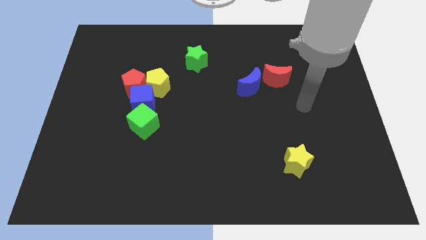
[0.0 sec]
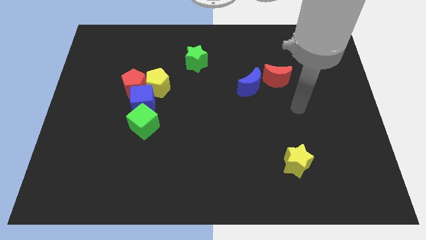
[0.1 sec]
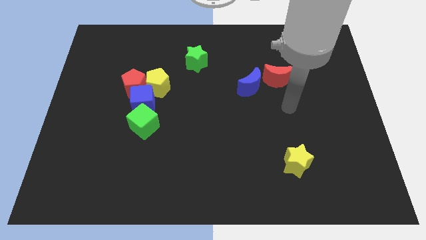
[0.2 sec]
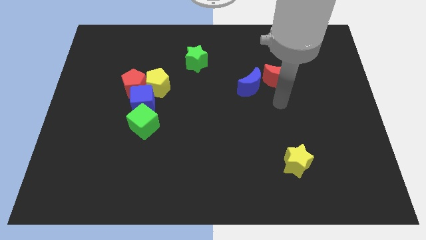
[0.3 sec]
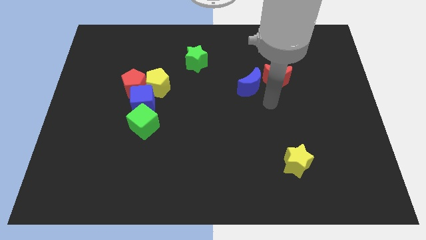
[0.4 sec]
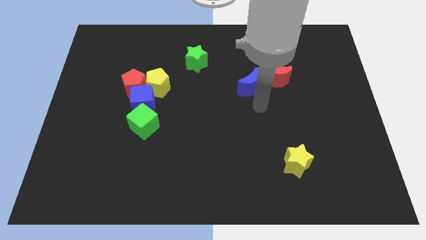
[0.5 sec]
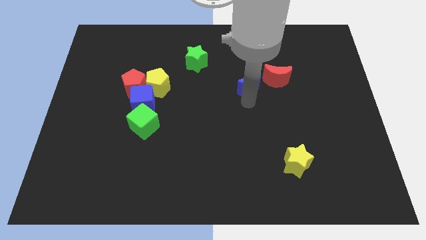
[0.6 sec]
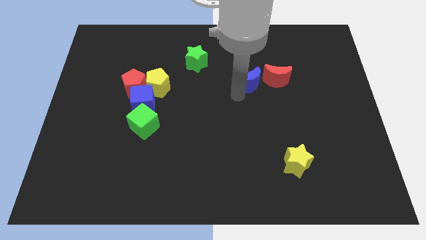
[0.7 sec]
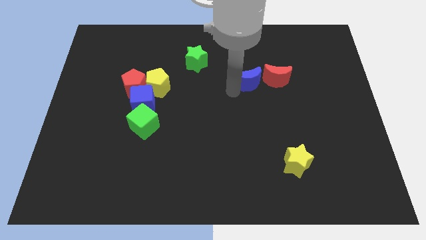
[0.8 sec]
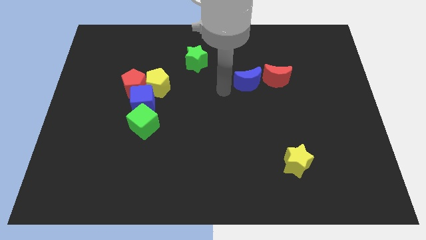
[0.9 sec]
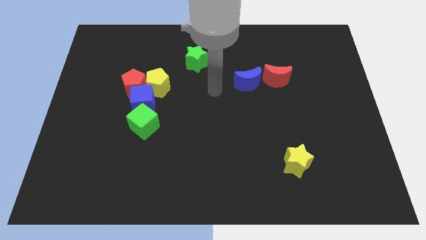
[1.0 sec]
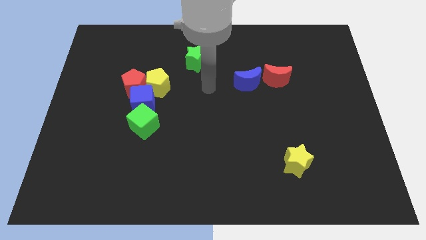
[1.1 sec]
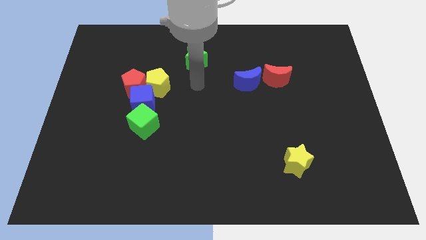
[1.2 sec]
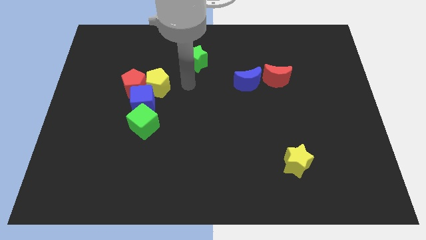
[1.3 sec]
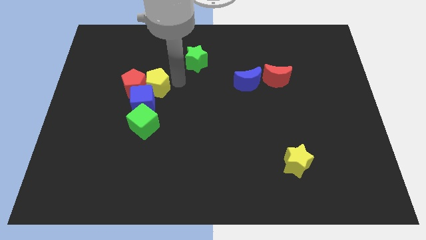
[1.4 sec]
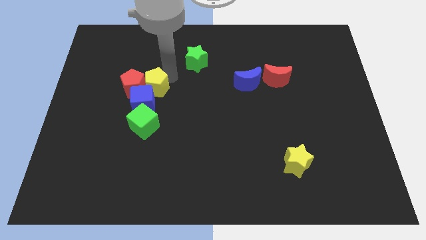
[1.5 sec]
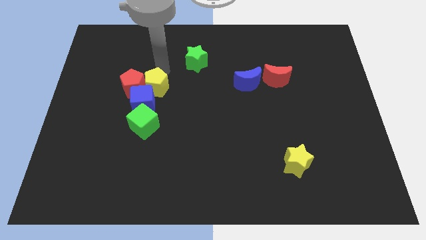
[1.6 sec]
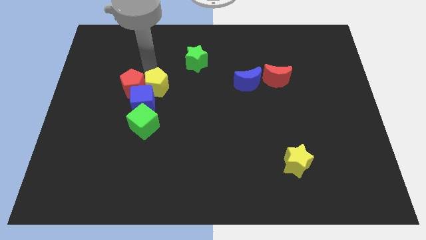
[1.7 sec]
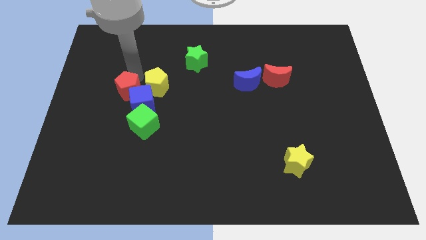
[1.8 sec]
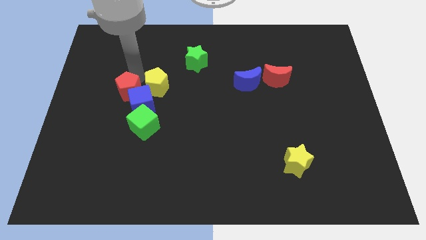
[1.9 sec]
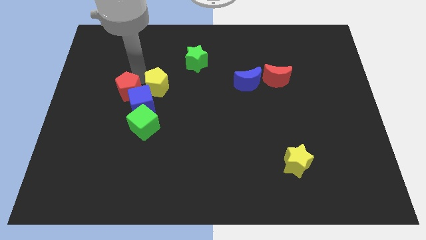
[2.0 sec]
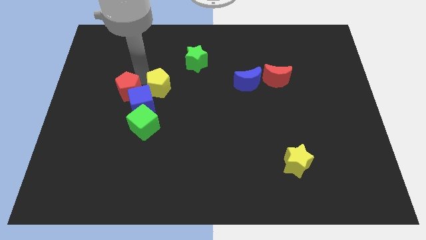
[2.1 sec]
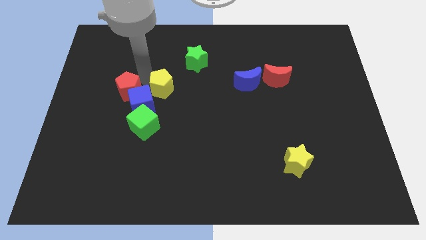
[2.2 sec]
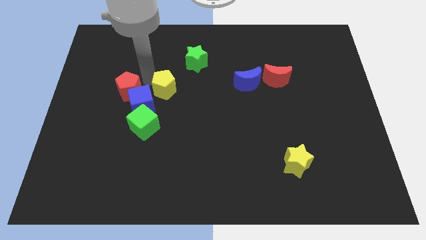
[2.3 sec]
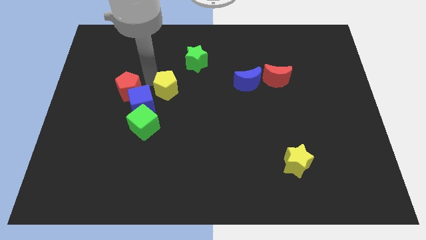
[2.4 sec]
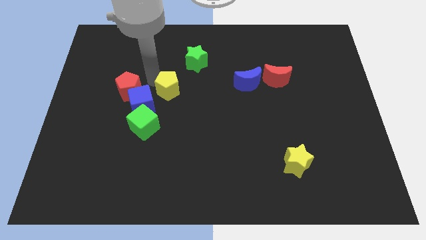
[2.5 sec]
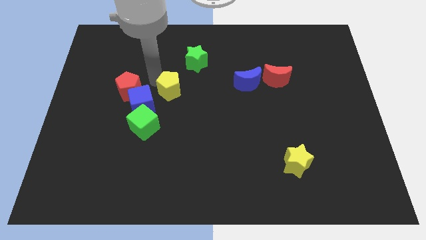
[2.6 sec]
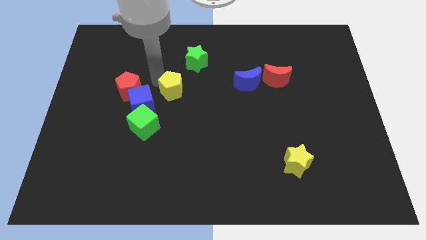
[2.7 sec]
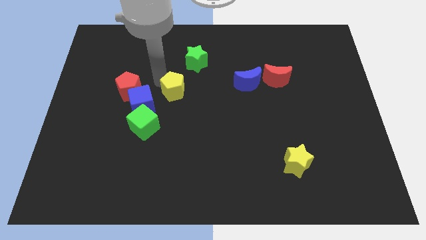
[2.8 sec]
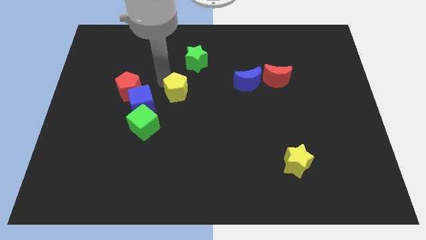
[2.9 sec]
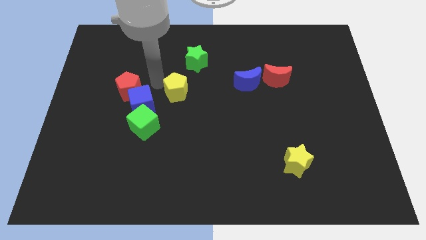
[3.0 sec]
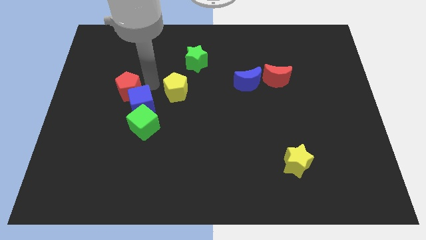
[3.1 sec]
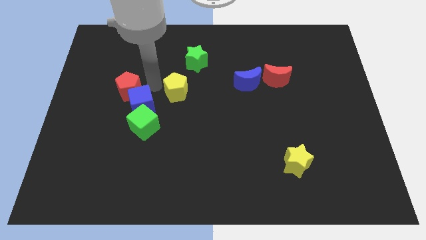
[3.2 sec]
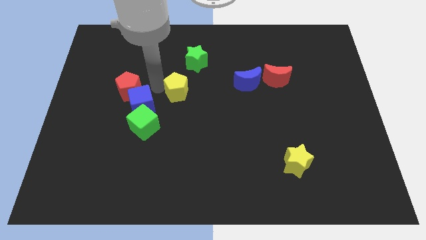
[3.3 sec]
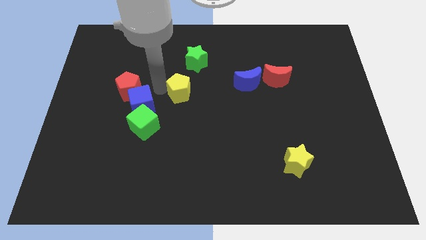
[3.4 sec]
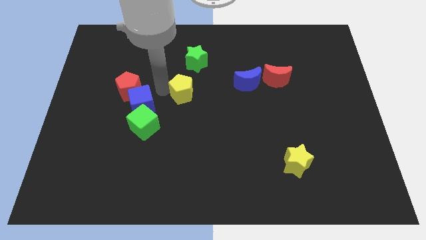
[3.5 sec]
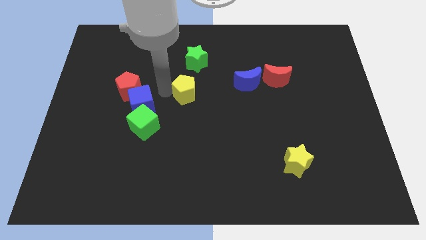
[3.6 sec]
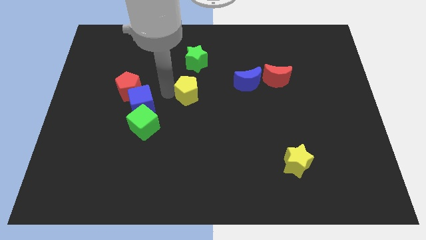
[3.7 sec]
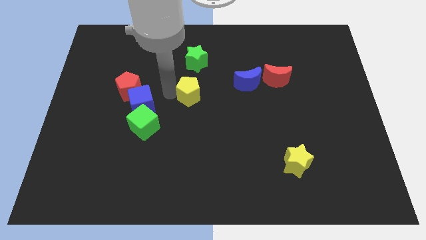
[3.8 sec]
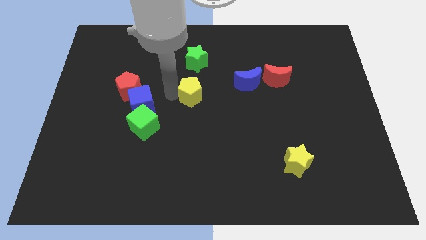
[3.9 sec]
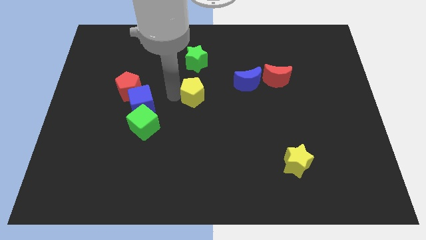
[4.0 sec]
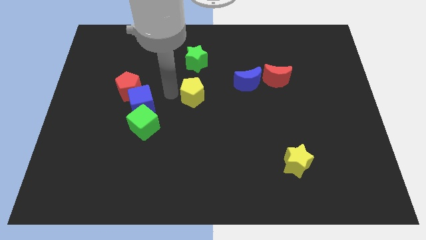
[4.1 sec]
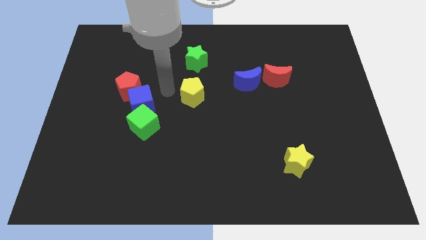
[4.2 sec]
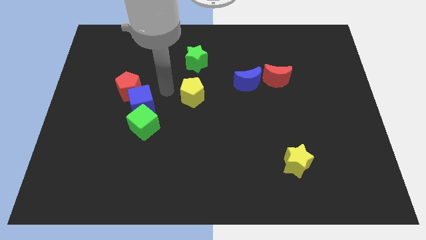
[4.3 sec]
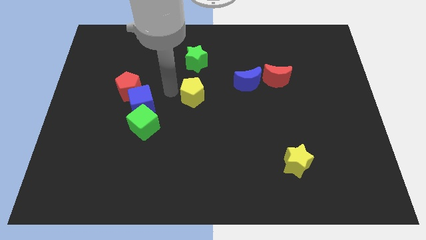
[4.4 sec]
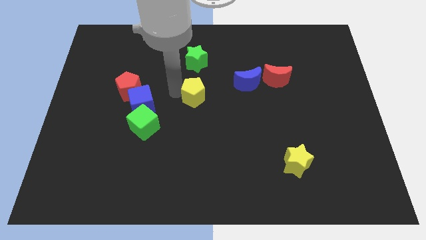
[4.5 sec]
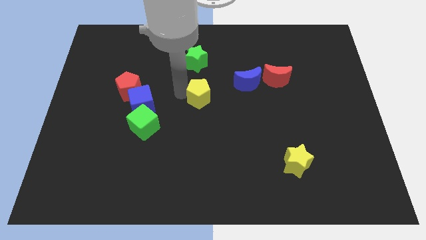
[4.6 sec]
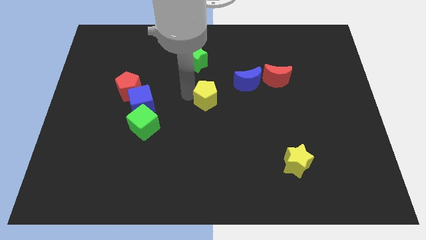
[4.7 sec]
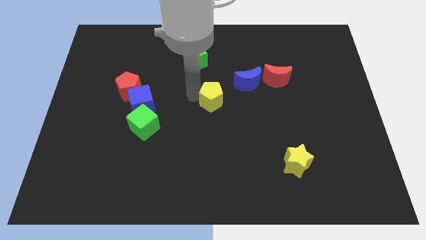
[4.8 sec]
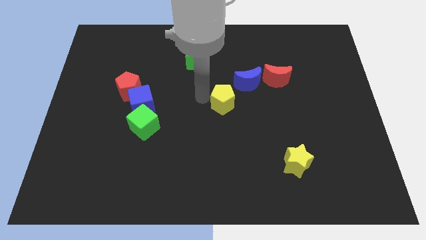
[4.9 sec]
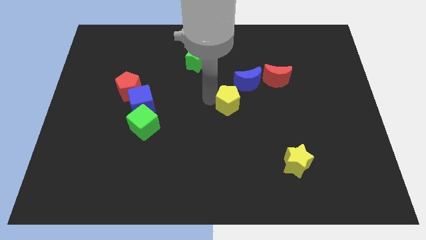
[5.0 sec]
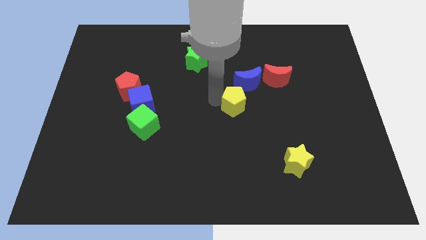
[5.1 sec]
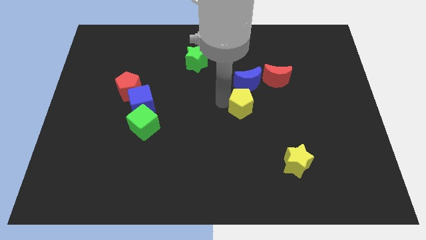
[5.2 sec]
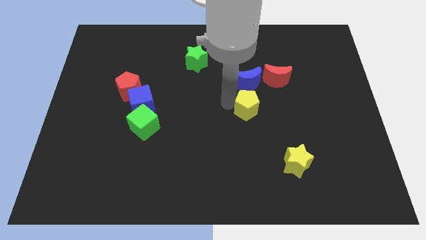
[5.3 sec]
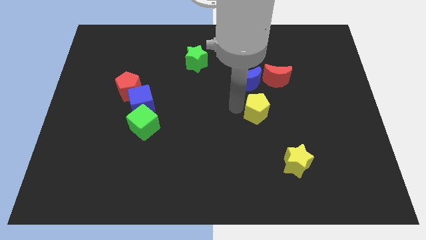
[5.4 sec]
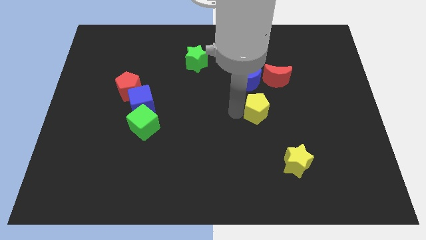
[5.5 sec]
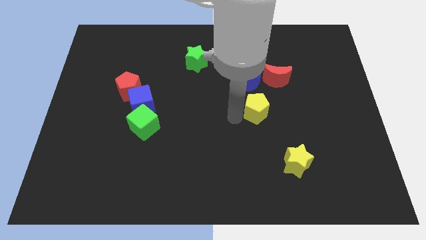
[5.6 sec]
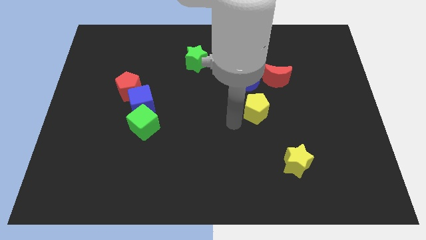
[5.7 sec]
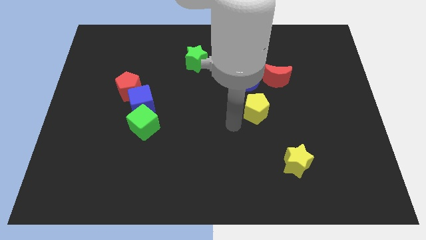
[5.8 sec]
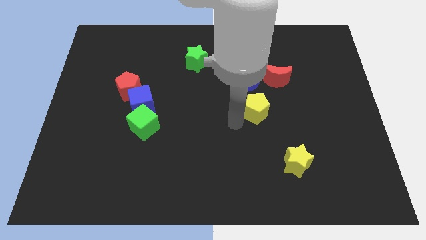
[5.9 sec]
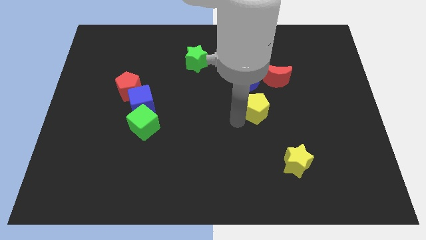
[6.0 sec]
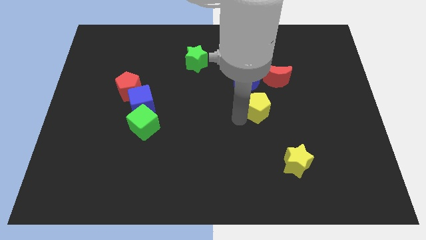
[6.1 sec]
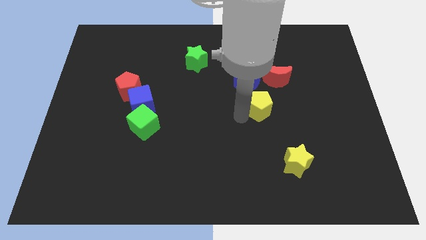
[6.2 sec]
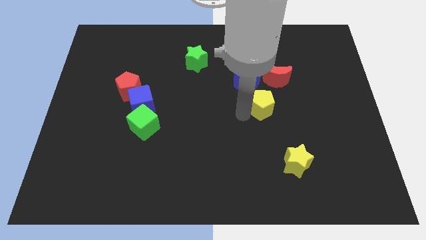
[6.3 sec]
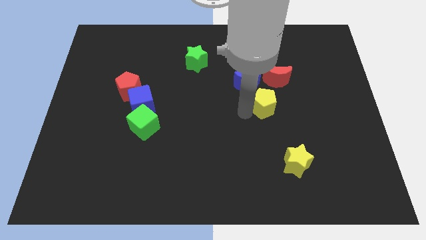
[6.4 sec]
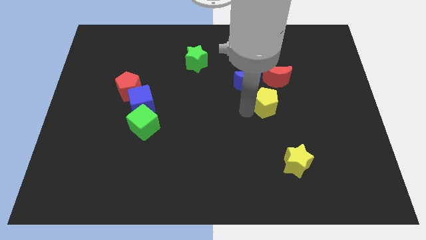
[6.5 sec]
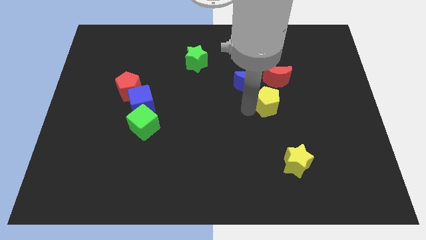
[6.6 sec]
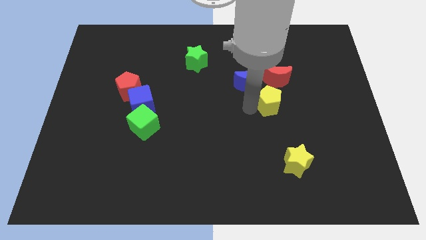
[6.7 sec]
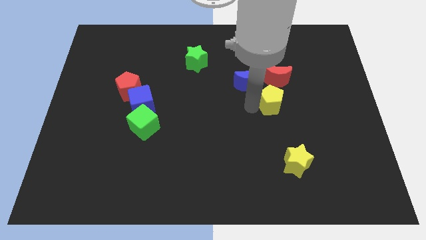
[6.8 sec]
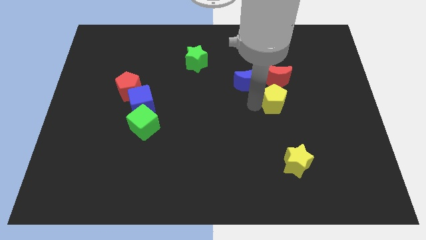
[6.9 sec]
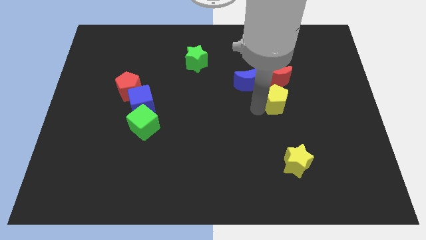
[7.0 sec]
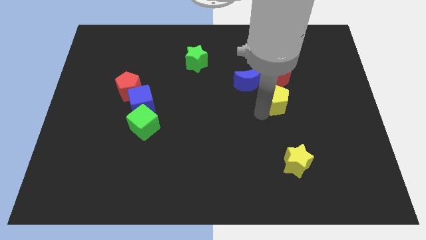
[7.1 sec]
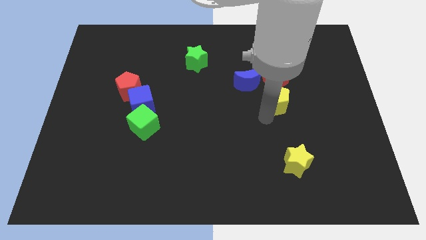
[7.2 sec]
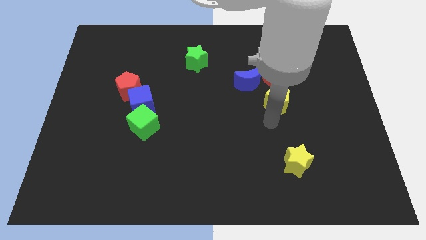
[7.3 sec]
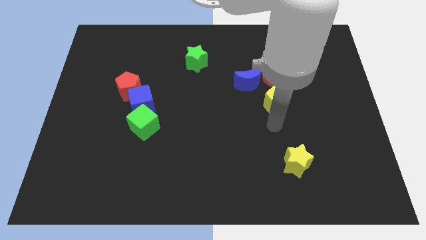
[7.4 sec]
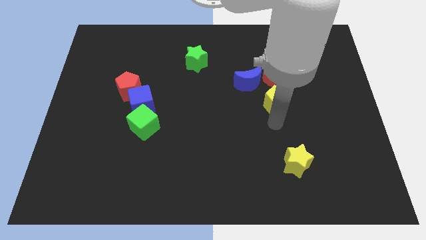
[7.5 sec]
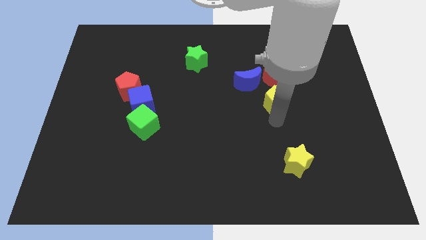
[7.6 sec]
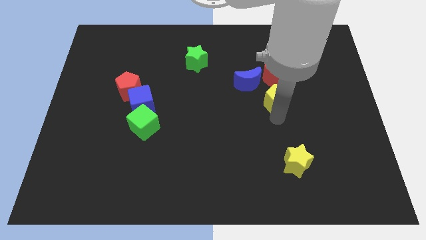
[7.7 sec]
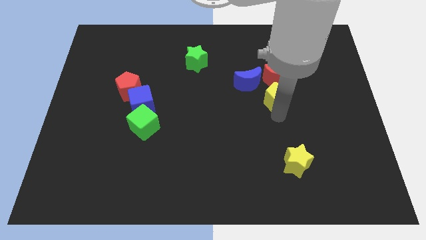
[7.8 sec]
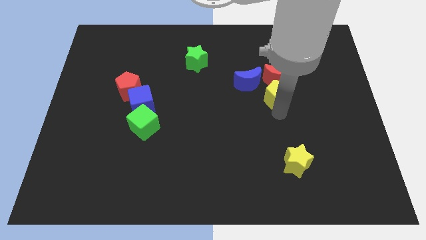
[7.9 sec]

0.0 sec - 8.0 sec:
slide the yellow pentagon to the red moon
